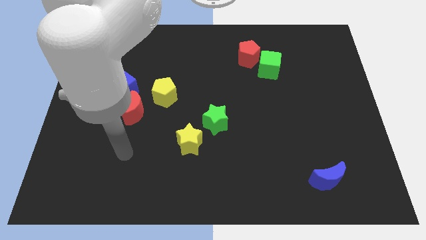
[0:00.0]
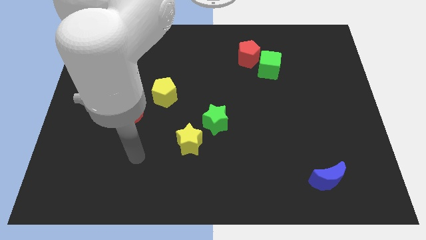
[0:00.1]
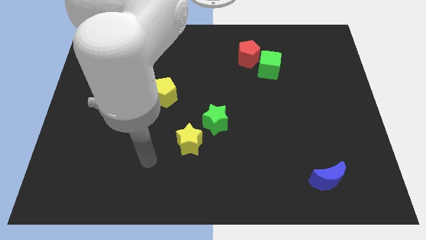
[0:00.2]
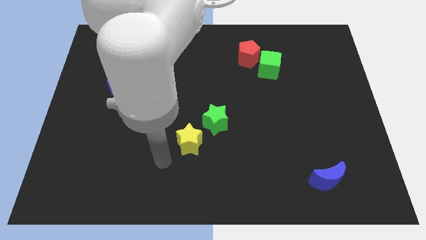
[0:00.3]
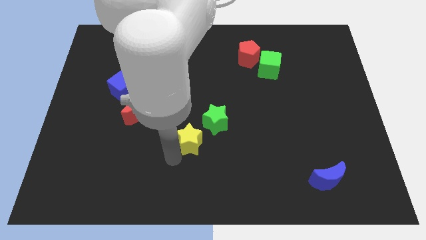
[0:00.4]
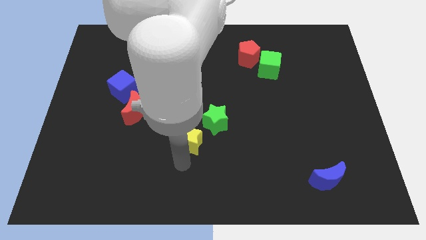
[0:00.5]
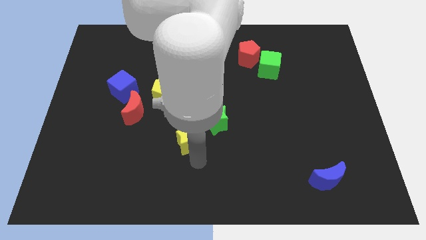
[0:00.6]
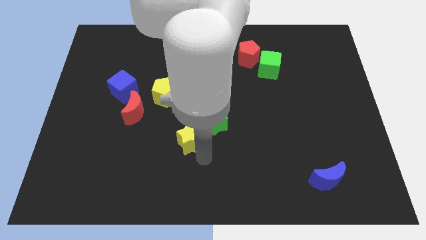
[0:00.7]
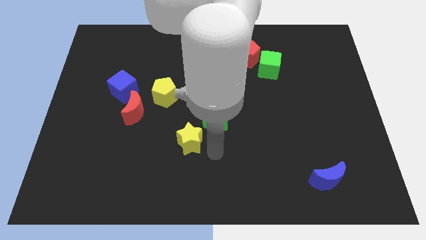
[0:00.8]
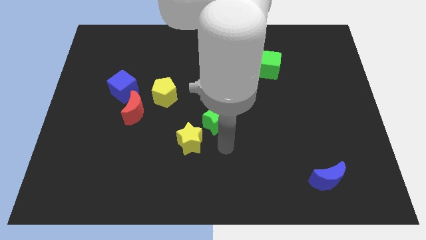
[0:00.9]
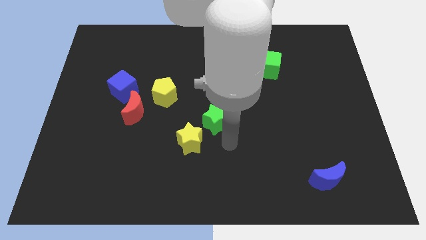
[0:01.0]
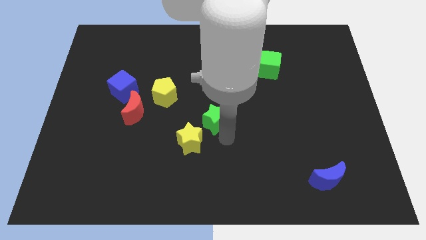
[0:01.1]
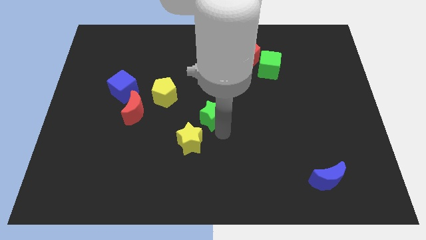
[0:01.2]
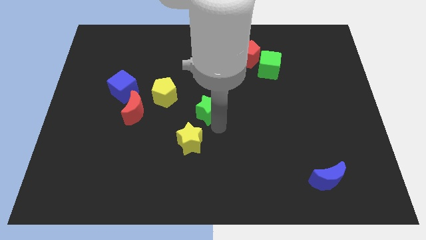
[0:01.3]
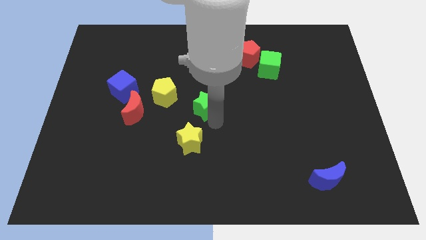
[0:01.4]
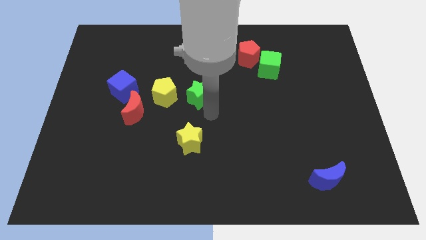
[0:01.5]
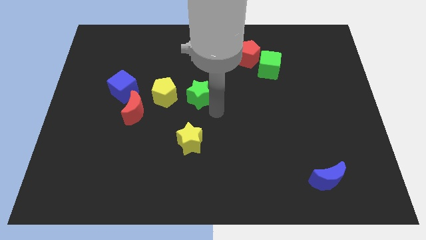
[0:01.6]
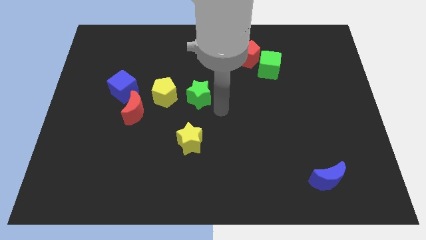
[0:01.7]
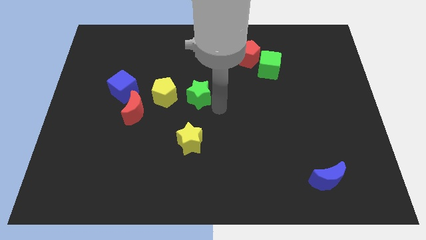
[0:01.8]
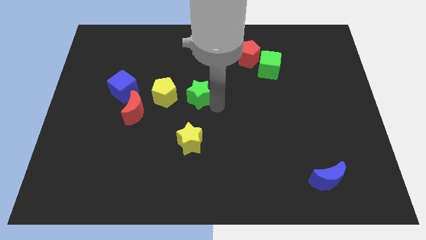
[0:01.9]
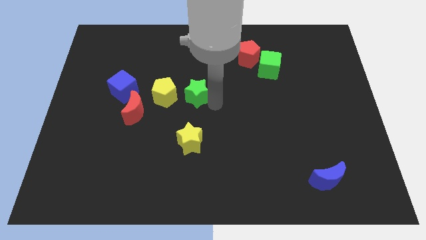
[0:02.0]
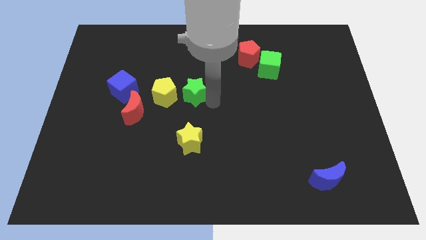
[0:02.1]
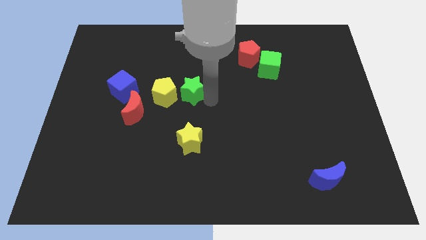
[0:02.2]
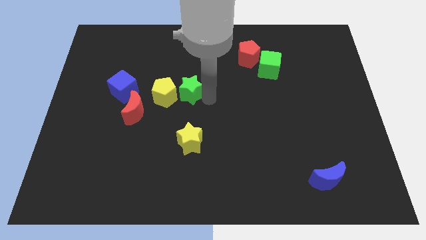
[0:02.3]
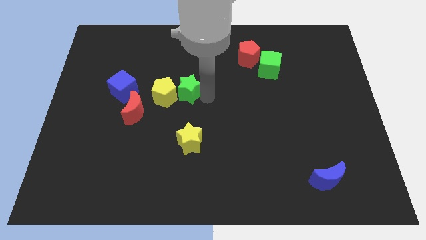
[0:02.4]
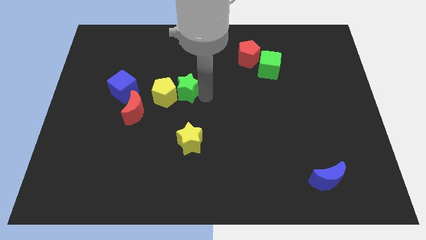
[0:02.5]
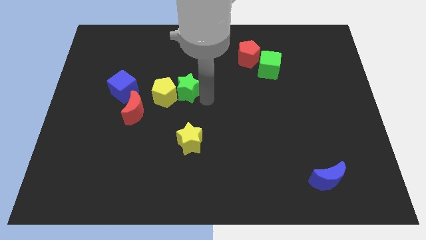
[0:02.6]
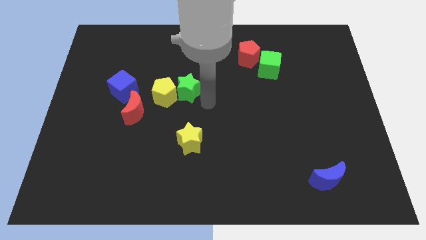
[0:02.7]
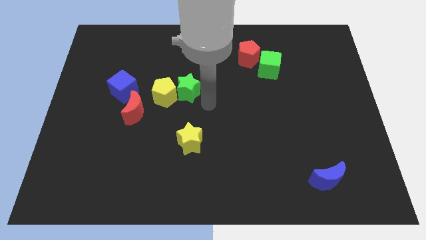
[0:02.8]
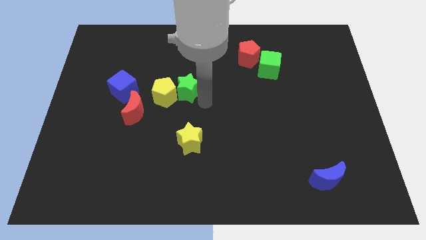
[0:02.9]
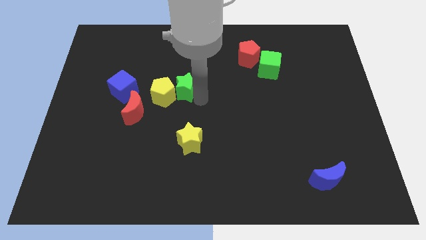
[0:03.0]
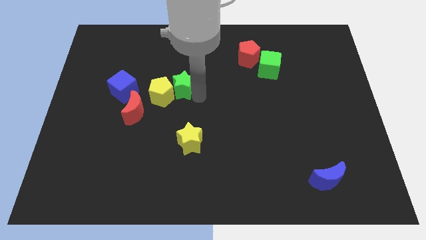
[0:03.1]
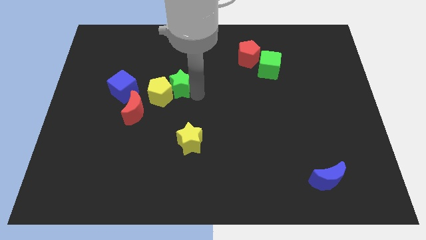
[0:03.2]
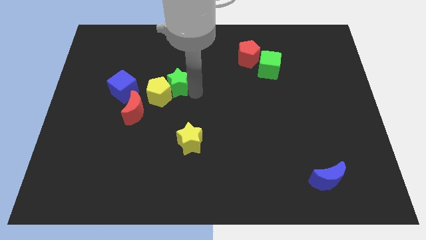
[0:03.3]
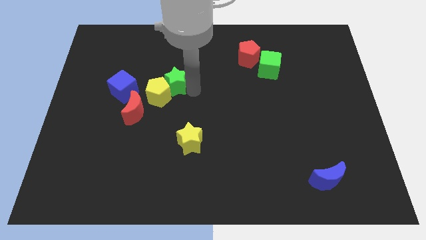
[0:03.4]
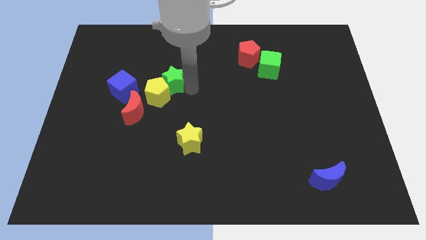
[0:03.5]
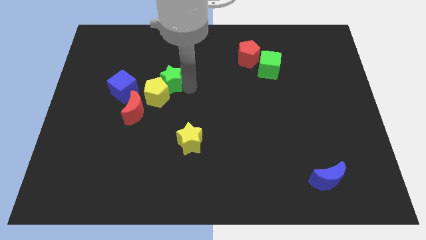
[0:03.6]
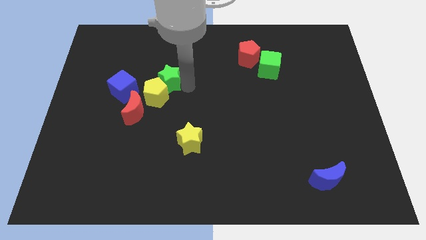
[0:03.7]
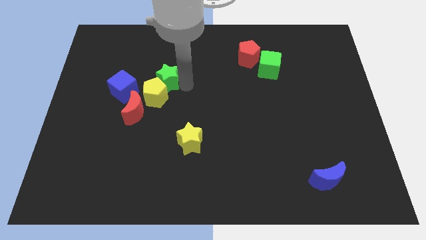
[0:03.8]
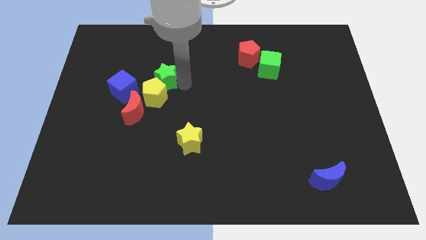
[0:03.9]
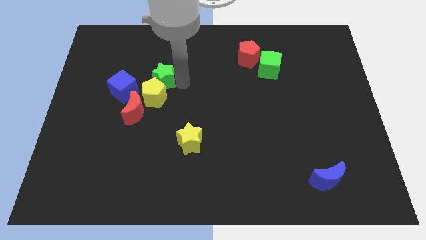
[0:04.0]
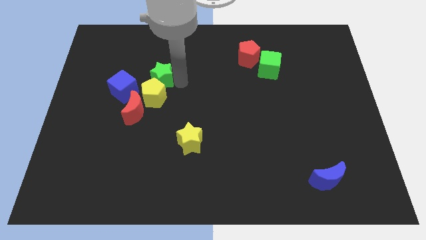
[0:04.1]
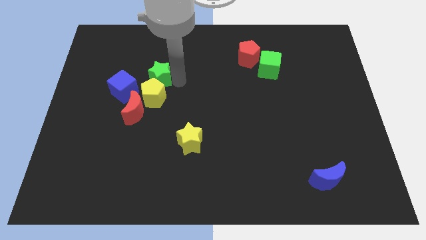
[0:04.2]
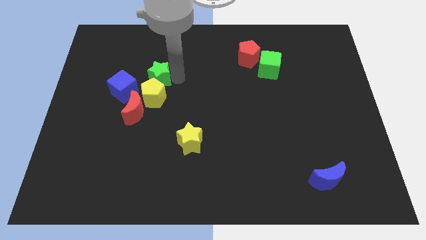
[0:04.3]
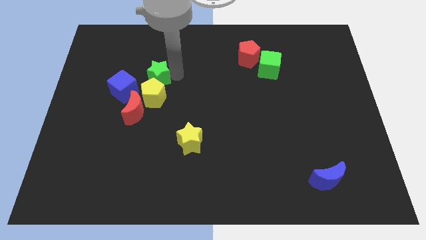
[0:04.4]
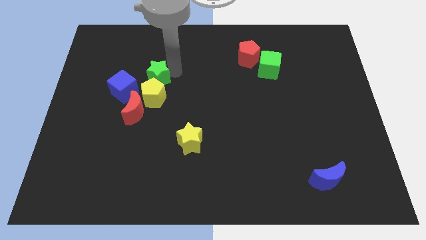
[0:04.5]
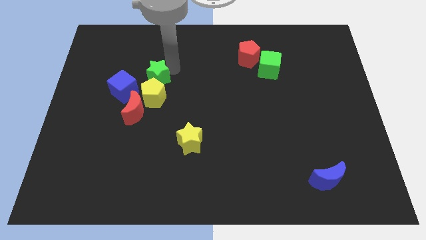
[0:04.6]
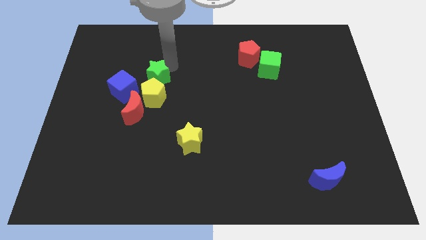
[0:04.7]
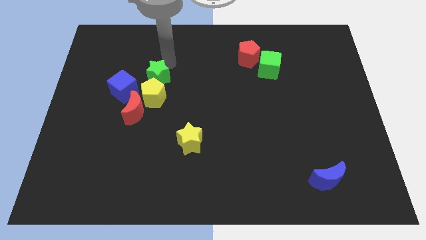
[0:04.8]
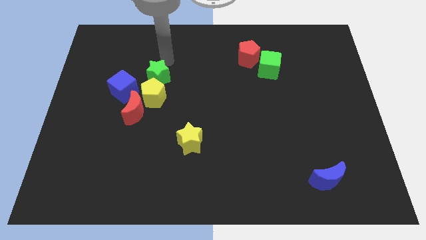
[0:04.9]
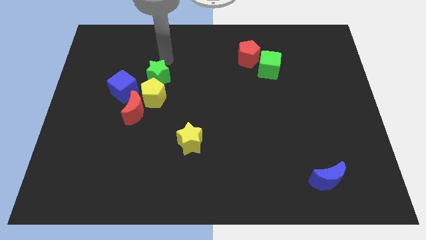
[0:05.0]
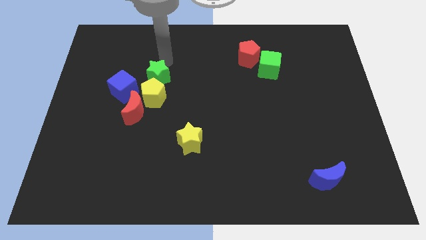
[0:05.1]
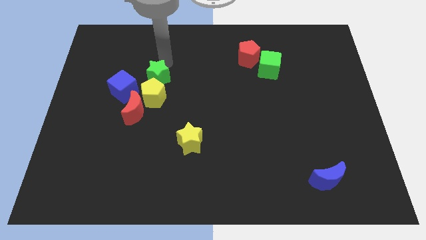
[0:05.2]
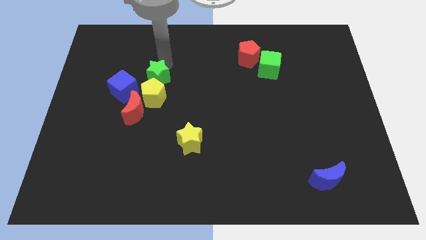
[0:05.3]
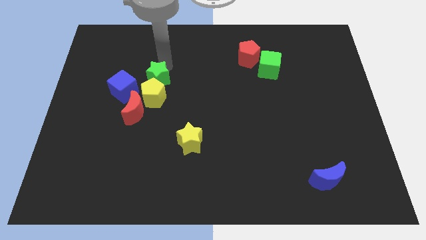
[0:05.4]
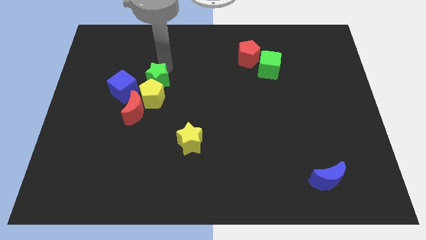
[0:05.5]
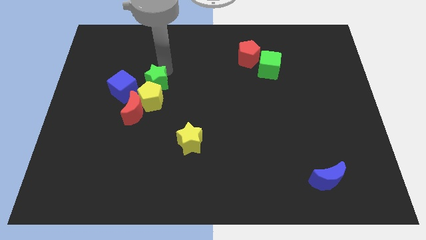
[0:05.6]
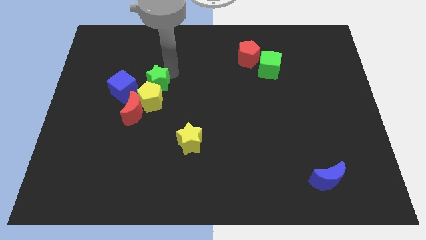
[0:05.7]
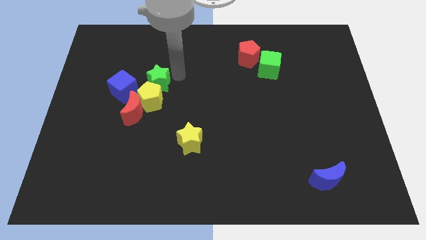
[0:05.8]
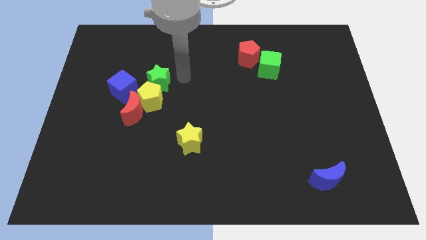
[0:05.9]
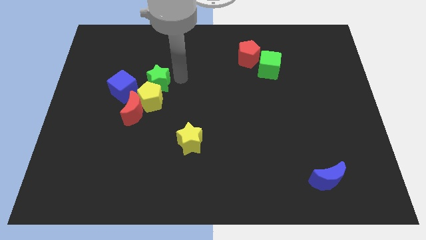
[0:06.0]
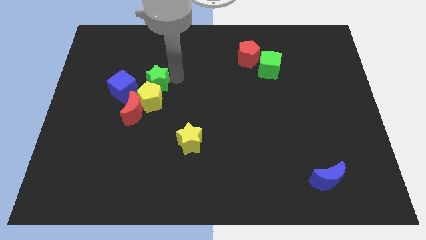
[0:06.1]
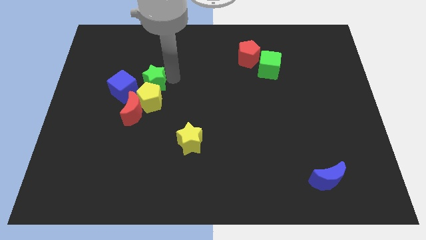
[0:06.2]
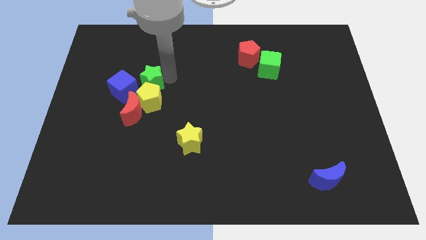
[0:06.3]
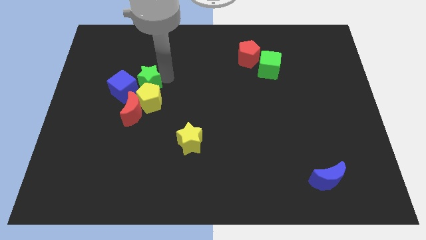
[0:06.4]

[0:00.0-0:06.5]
put the green star close to the blue cube

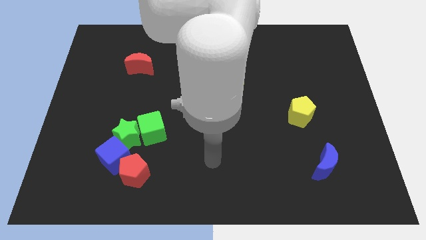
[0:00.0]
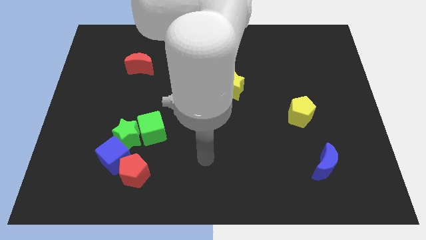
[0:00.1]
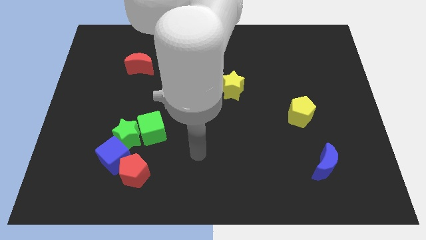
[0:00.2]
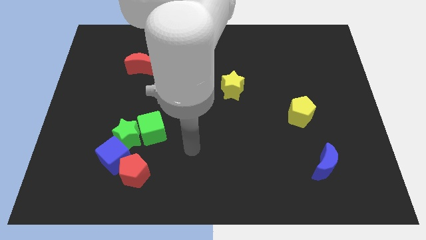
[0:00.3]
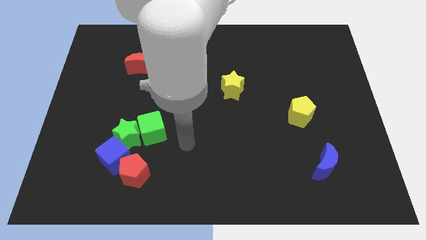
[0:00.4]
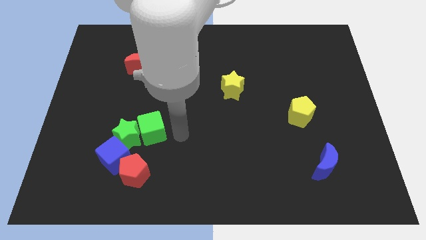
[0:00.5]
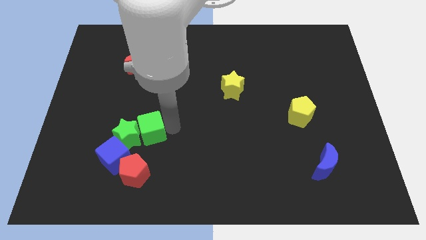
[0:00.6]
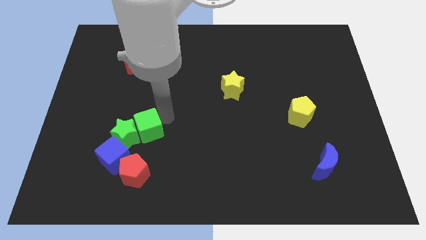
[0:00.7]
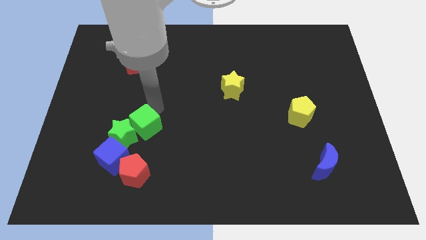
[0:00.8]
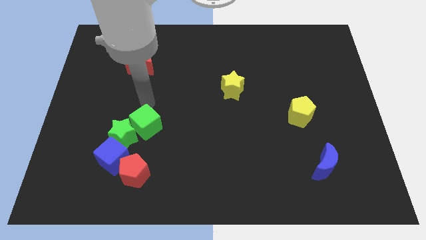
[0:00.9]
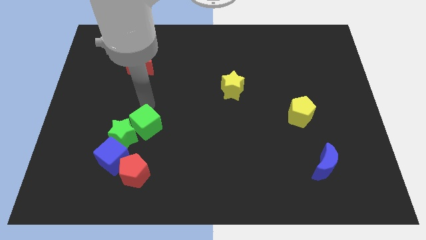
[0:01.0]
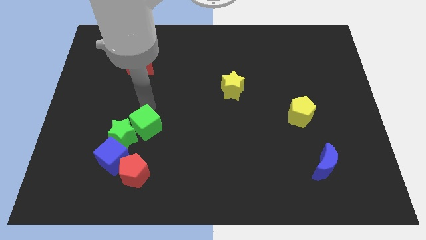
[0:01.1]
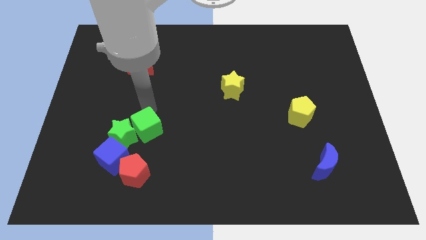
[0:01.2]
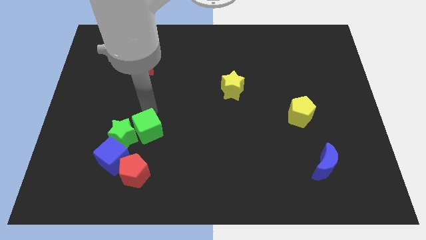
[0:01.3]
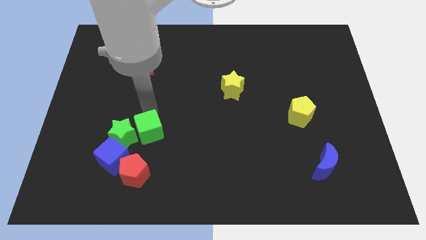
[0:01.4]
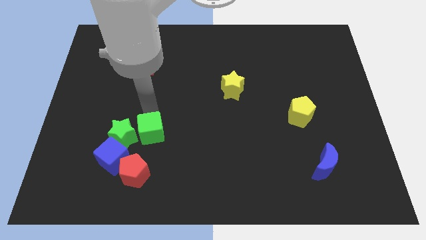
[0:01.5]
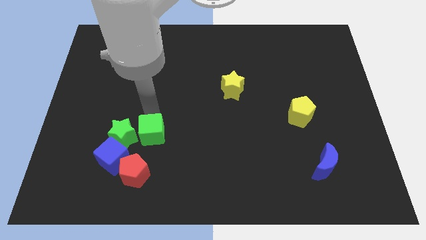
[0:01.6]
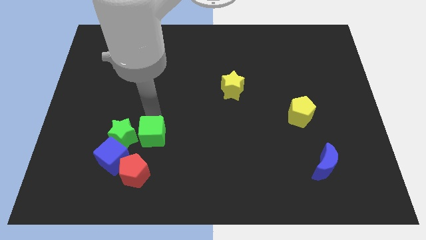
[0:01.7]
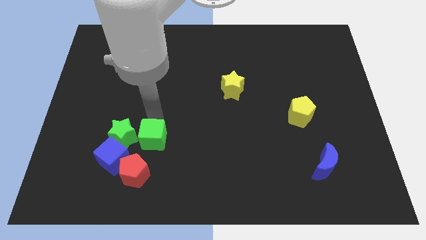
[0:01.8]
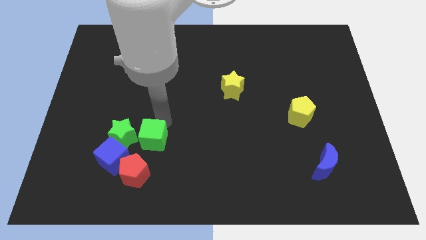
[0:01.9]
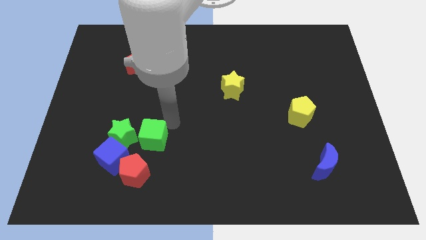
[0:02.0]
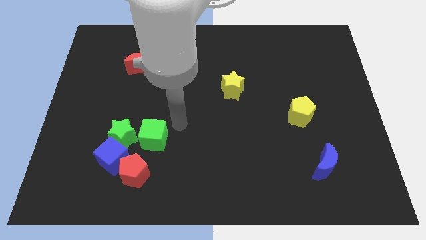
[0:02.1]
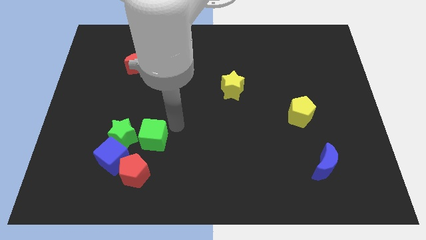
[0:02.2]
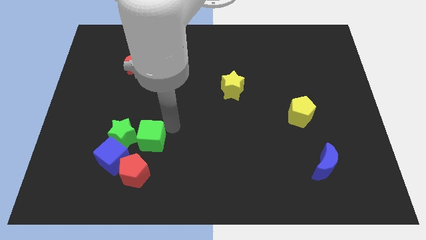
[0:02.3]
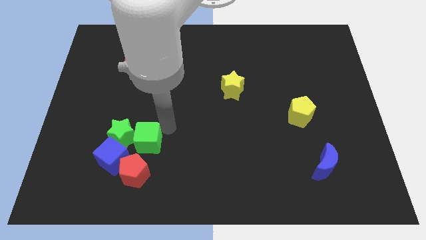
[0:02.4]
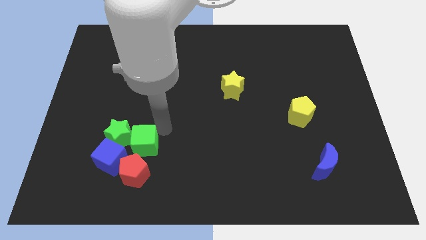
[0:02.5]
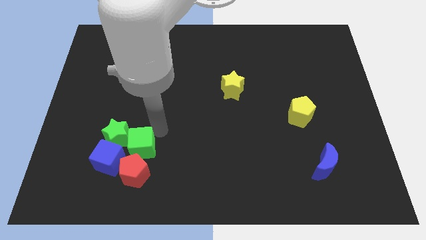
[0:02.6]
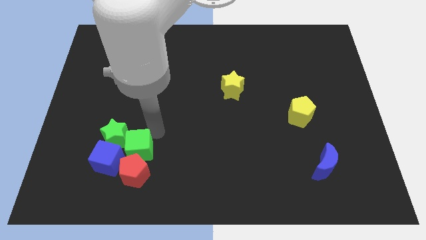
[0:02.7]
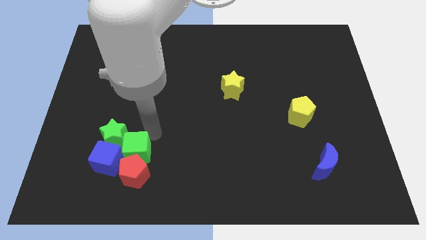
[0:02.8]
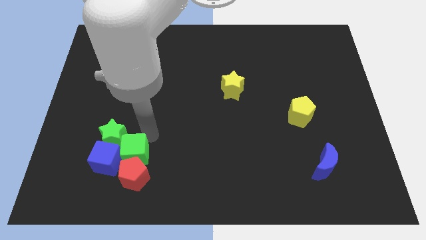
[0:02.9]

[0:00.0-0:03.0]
slide the green cube close to the blue cube
